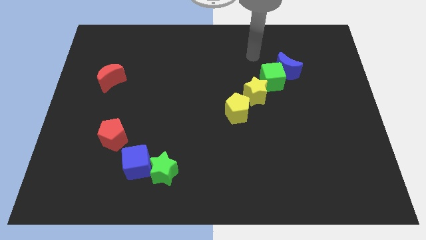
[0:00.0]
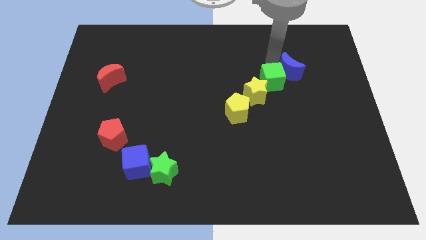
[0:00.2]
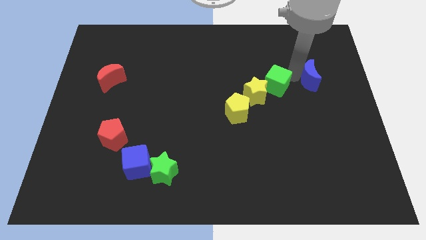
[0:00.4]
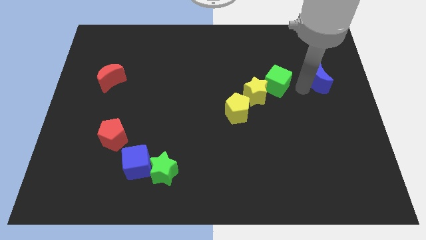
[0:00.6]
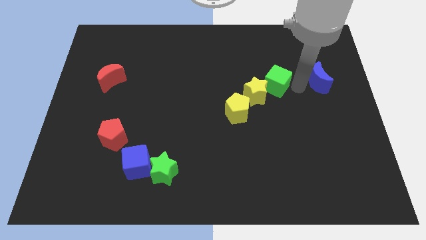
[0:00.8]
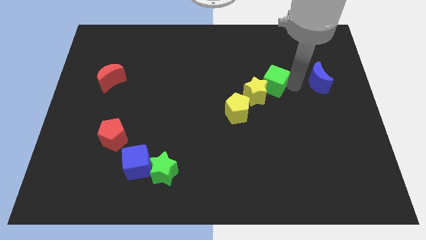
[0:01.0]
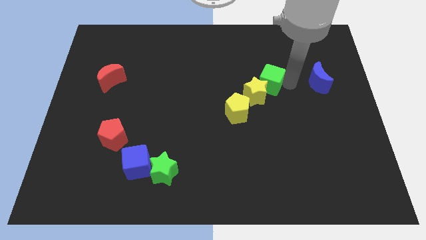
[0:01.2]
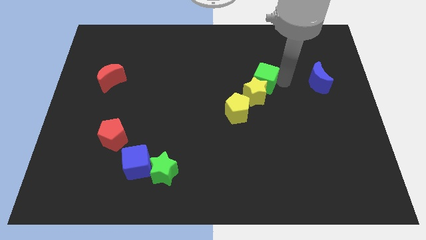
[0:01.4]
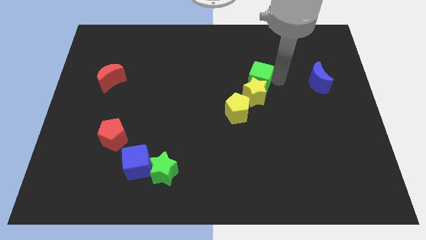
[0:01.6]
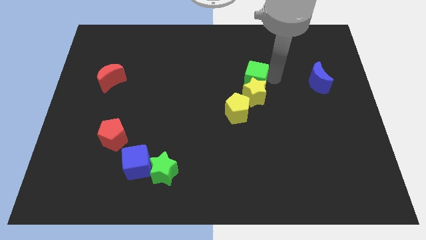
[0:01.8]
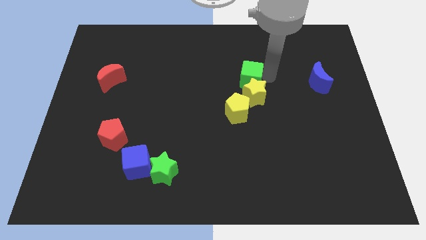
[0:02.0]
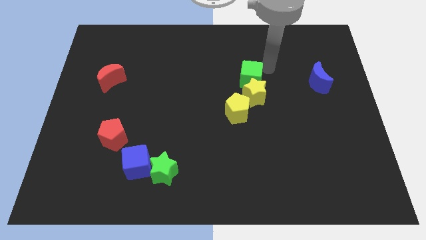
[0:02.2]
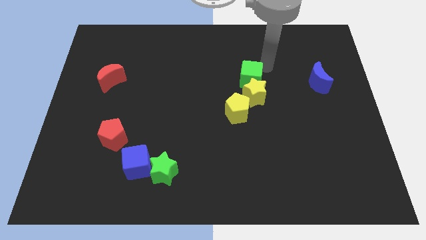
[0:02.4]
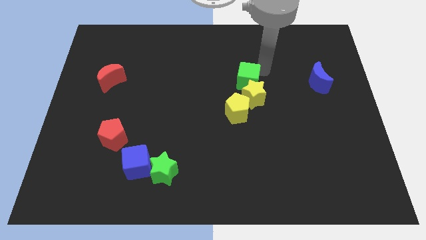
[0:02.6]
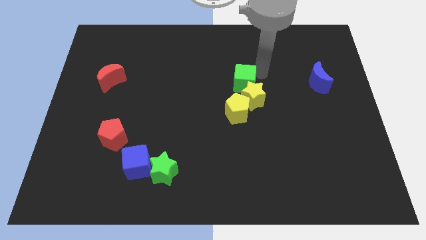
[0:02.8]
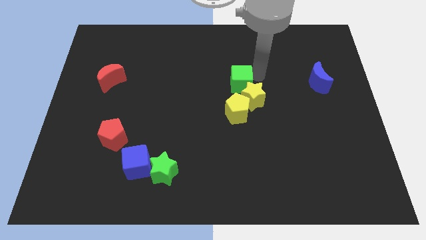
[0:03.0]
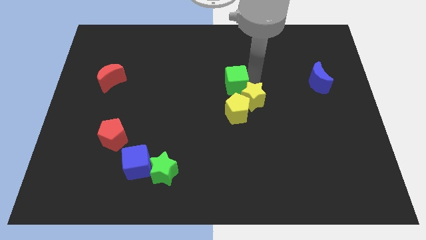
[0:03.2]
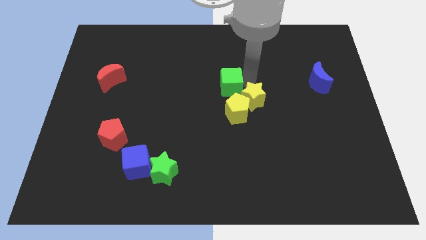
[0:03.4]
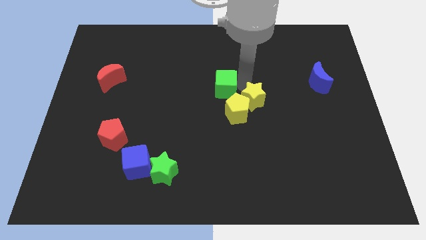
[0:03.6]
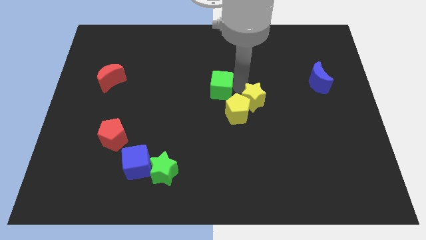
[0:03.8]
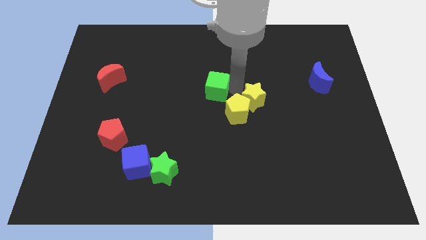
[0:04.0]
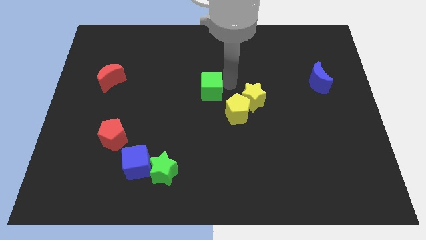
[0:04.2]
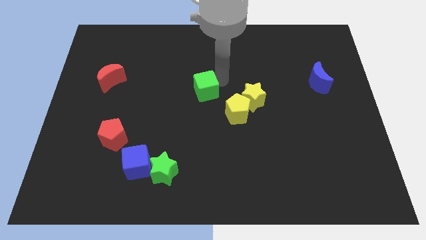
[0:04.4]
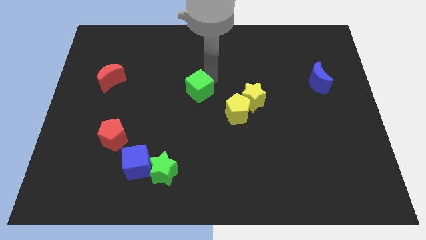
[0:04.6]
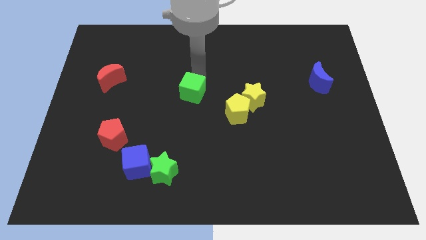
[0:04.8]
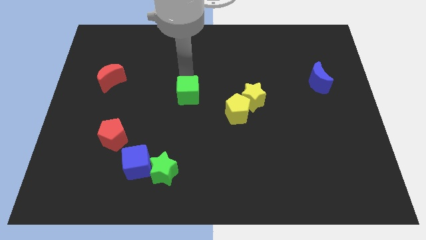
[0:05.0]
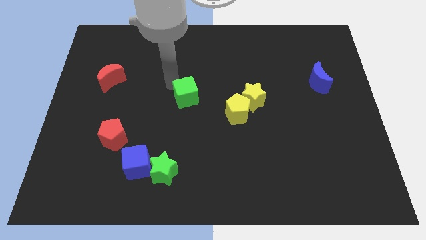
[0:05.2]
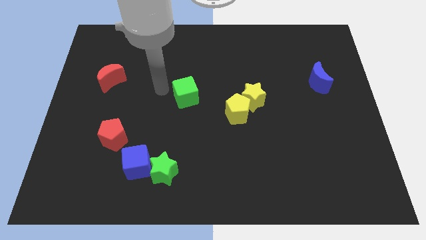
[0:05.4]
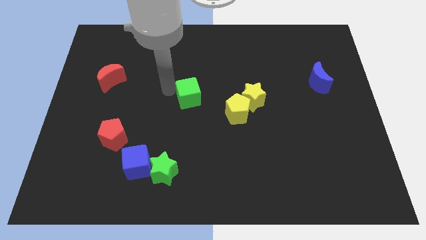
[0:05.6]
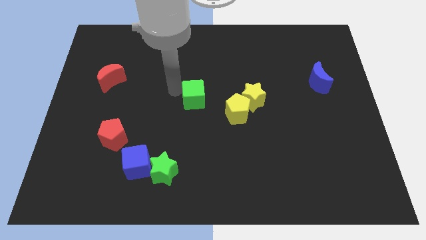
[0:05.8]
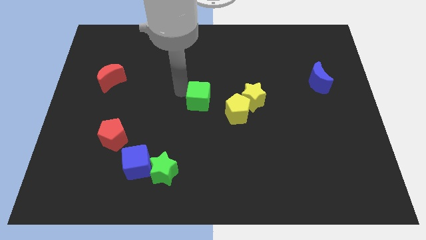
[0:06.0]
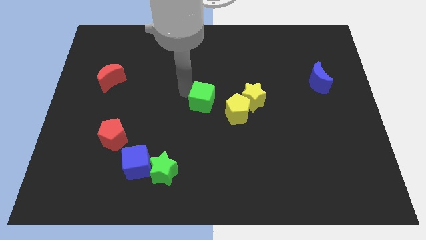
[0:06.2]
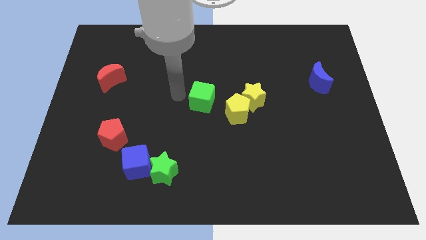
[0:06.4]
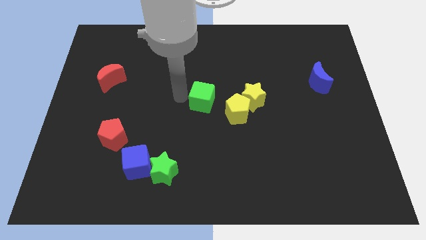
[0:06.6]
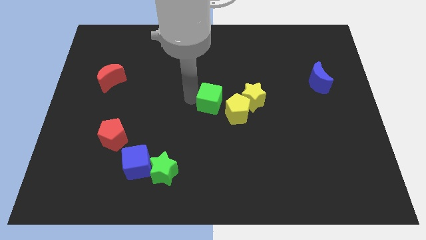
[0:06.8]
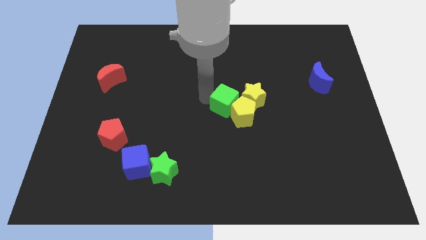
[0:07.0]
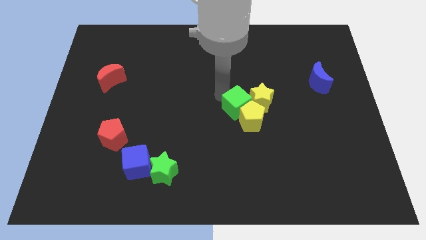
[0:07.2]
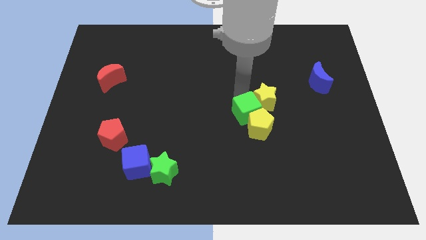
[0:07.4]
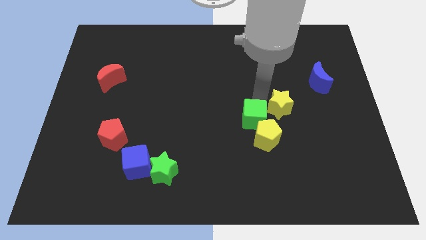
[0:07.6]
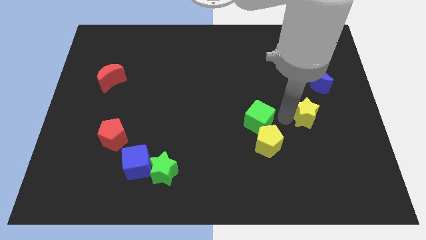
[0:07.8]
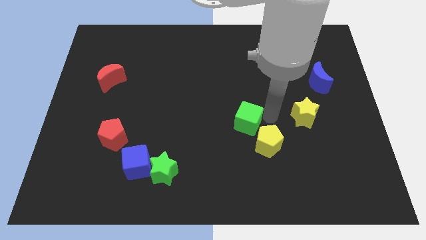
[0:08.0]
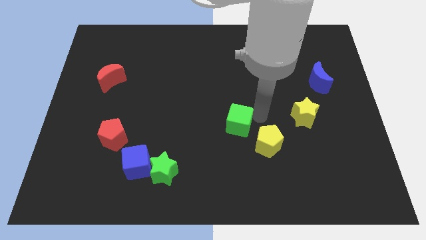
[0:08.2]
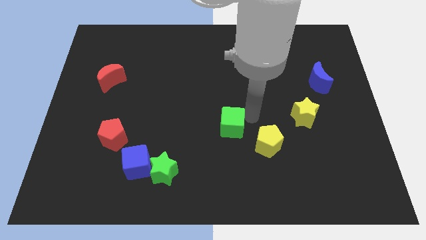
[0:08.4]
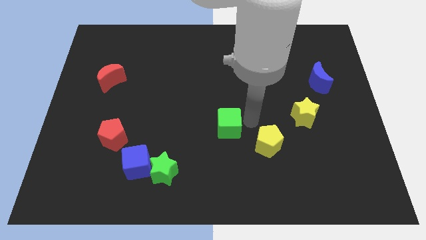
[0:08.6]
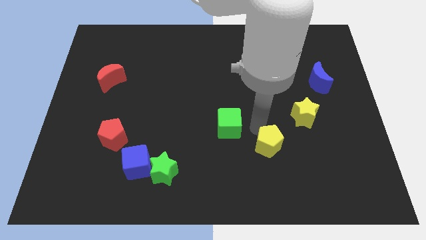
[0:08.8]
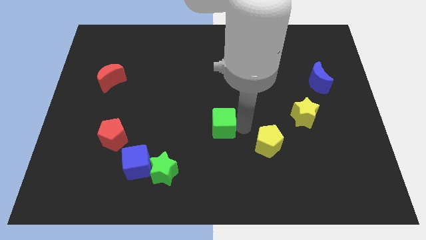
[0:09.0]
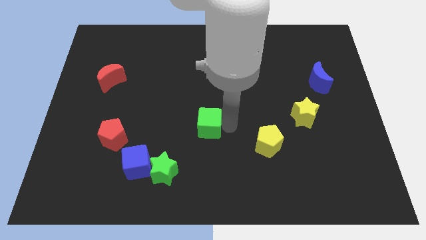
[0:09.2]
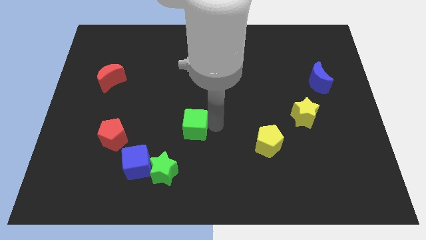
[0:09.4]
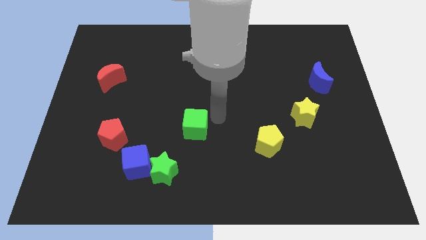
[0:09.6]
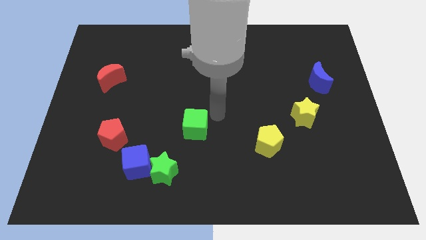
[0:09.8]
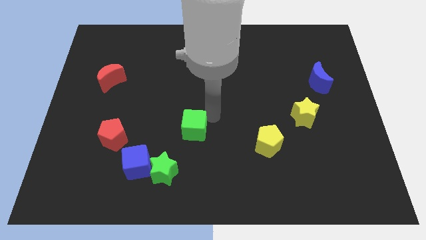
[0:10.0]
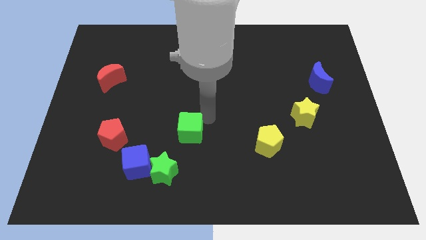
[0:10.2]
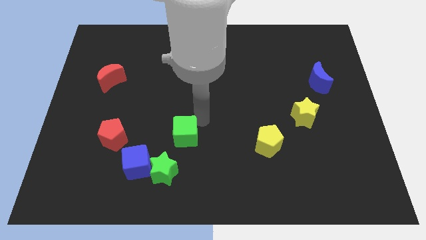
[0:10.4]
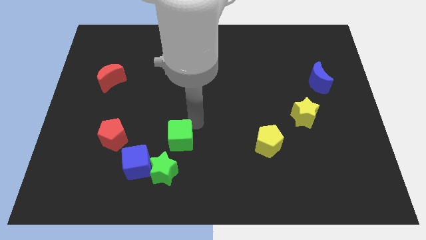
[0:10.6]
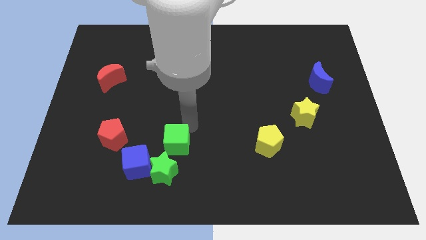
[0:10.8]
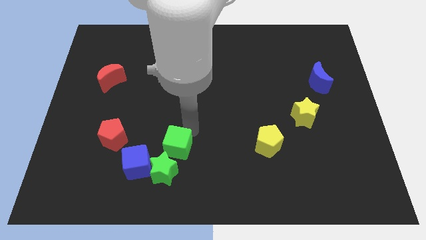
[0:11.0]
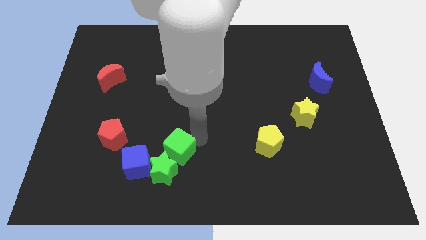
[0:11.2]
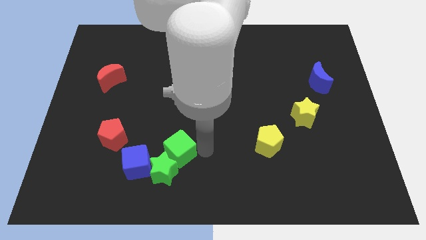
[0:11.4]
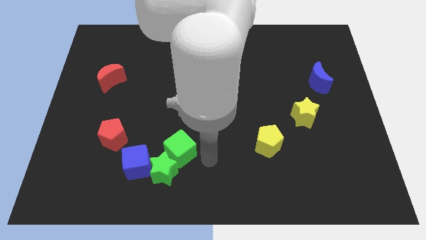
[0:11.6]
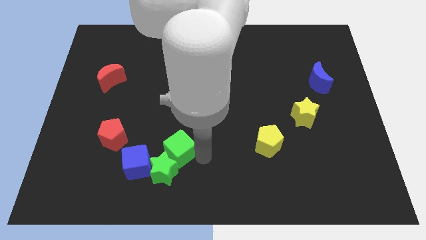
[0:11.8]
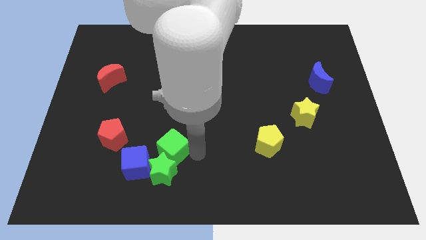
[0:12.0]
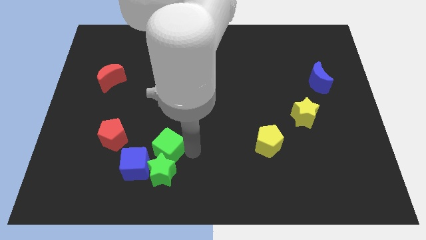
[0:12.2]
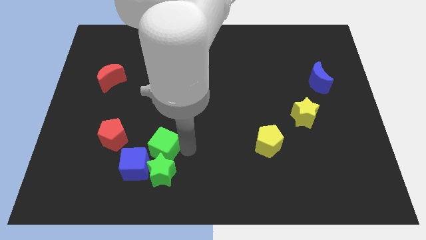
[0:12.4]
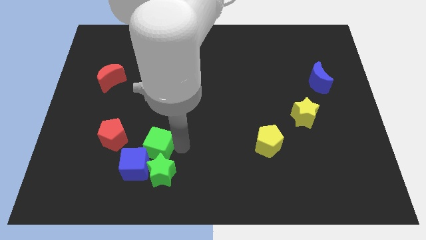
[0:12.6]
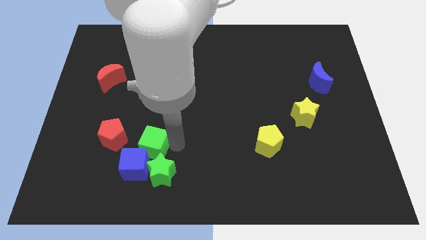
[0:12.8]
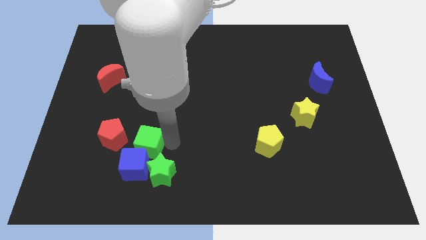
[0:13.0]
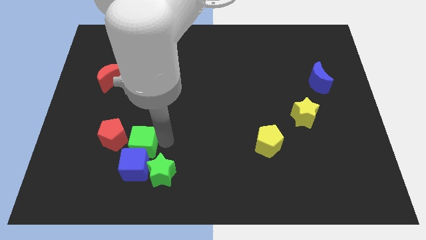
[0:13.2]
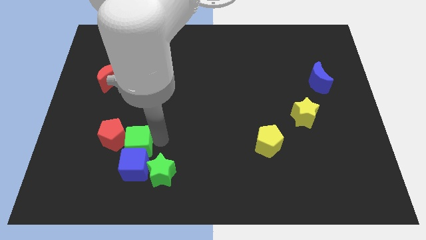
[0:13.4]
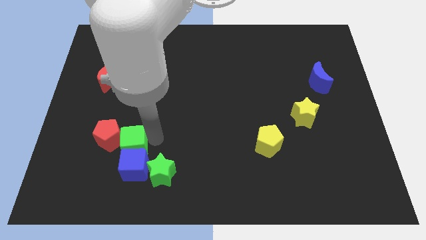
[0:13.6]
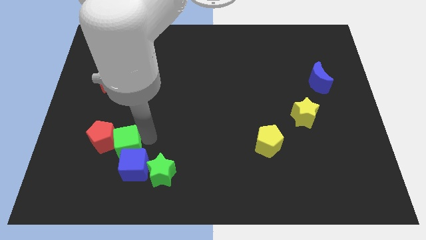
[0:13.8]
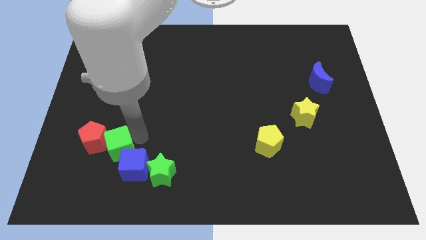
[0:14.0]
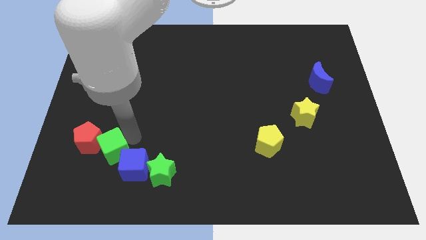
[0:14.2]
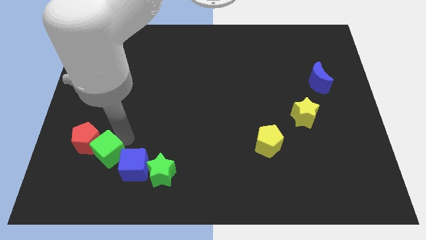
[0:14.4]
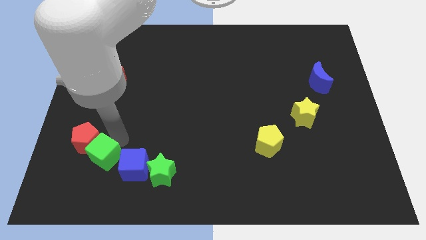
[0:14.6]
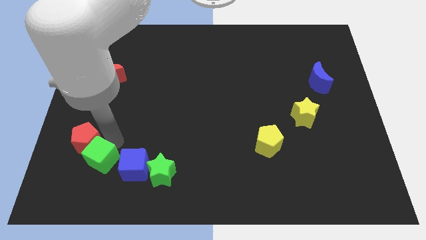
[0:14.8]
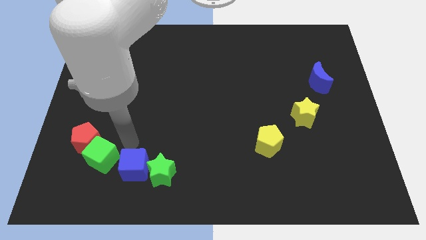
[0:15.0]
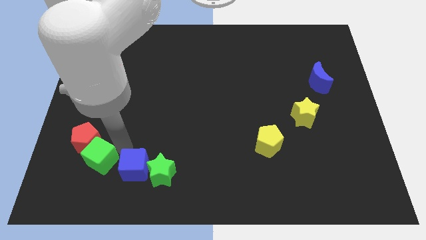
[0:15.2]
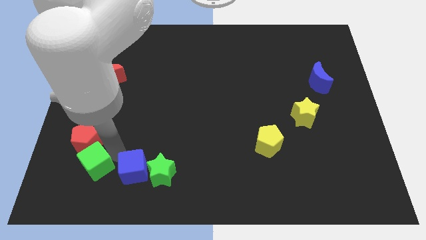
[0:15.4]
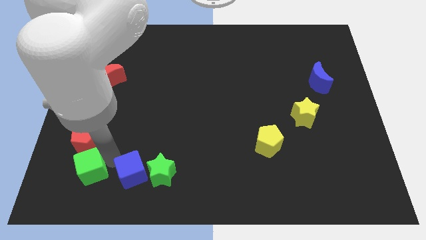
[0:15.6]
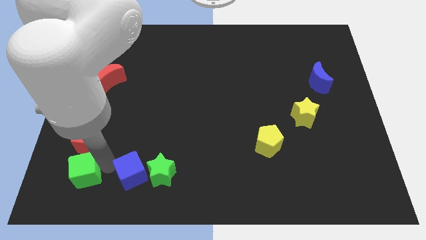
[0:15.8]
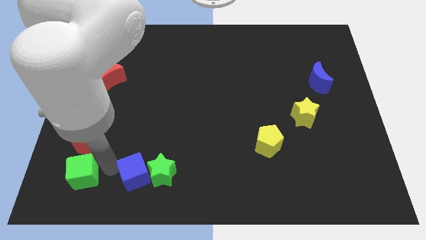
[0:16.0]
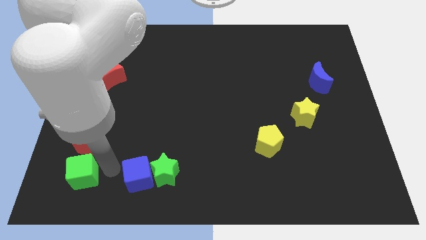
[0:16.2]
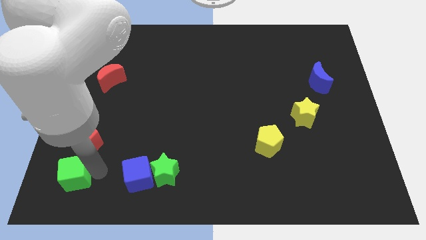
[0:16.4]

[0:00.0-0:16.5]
move the green cube to the bottom left
